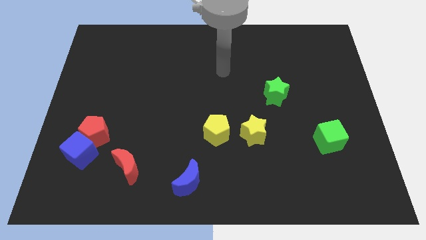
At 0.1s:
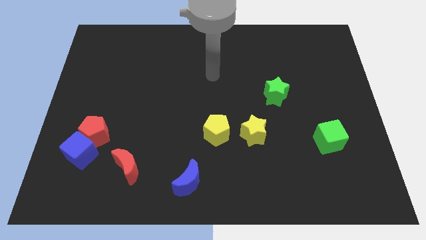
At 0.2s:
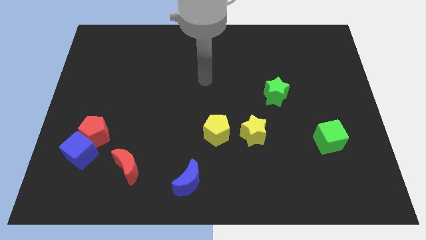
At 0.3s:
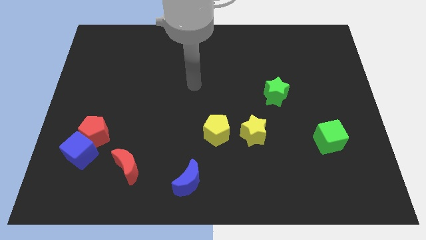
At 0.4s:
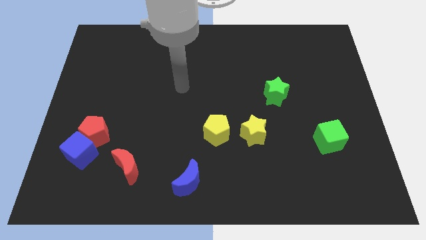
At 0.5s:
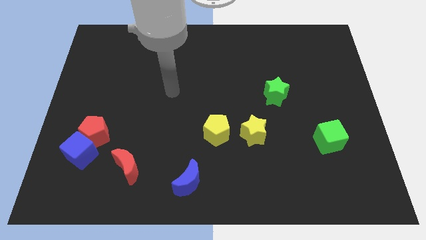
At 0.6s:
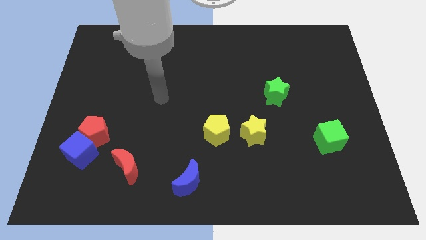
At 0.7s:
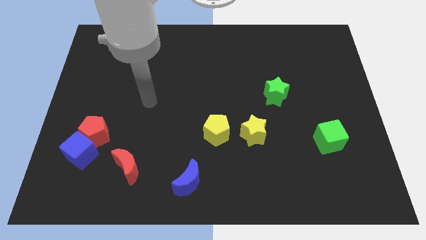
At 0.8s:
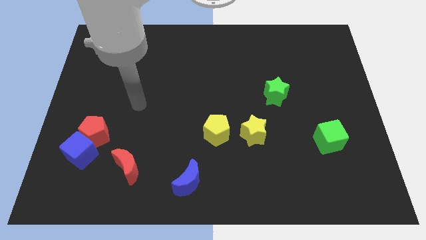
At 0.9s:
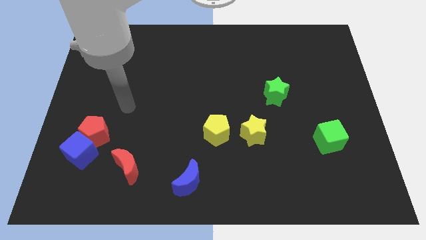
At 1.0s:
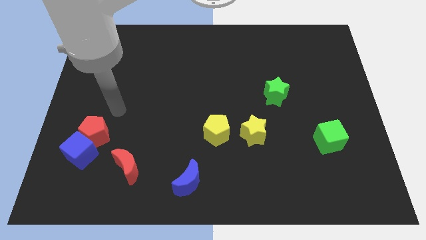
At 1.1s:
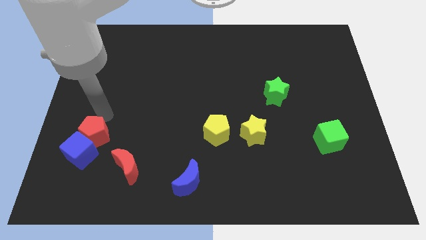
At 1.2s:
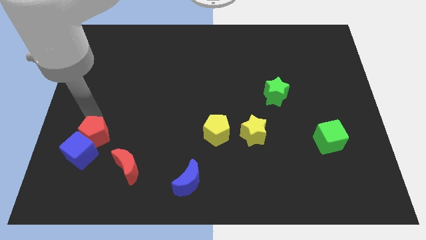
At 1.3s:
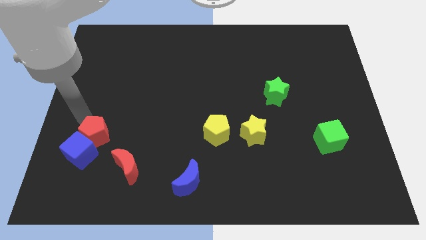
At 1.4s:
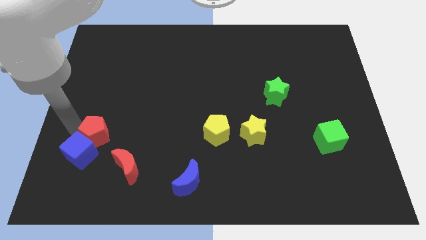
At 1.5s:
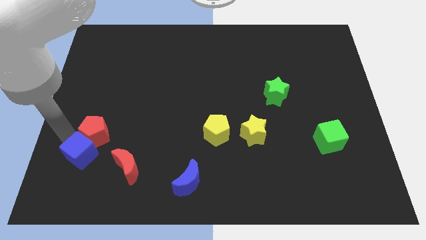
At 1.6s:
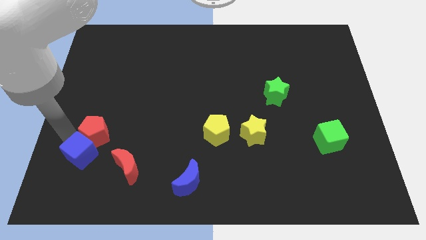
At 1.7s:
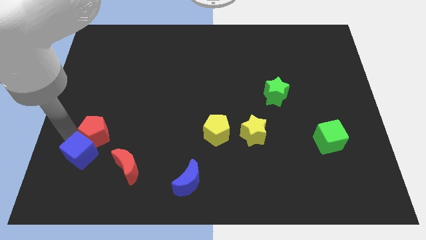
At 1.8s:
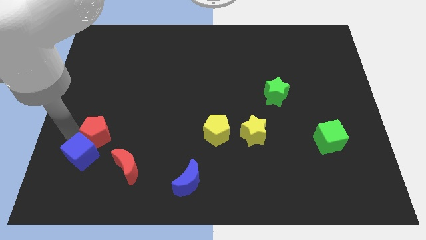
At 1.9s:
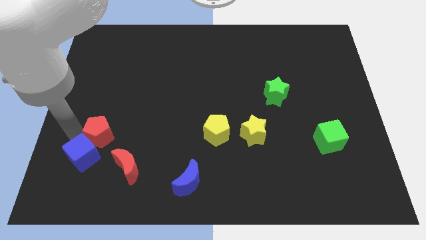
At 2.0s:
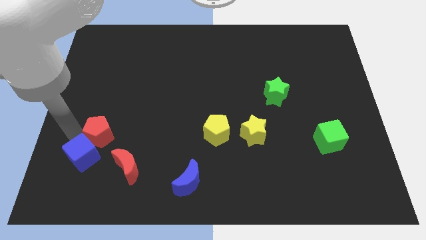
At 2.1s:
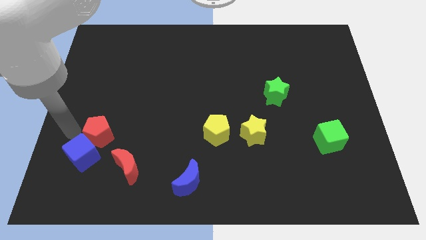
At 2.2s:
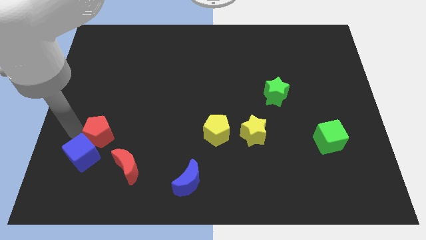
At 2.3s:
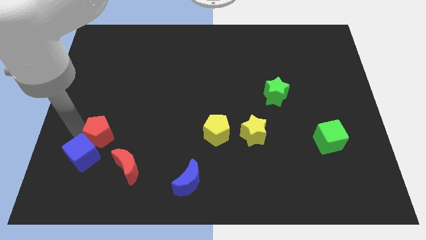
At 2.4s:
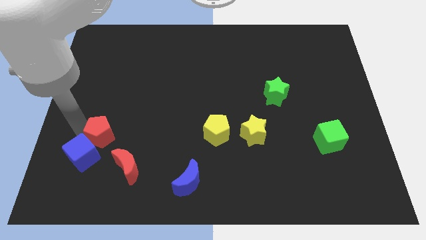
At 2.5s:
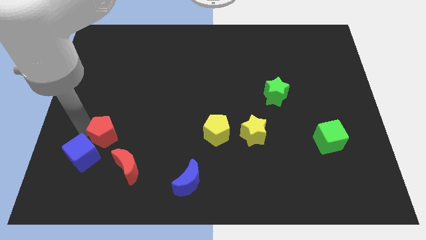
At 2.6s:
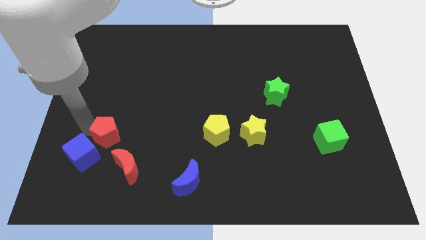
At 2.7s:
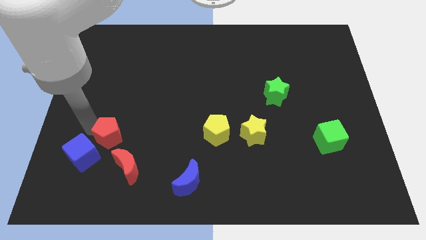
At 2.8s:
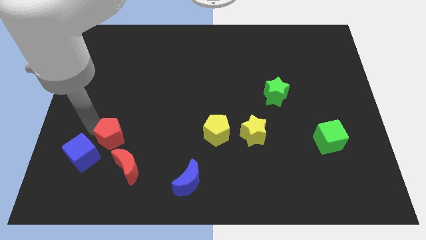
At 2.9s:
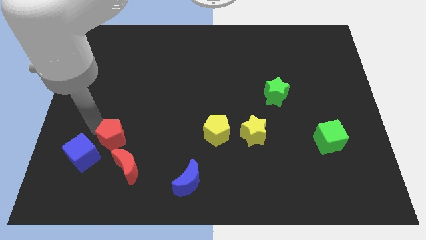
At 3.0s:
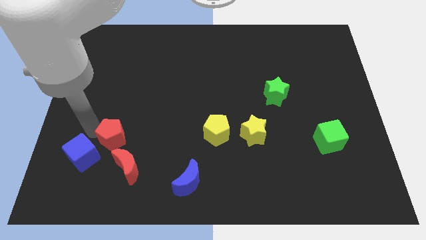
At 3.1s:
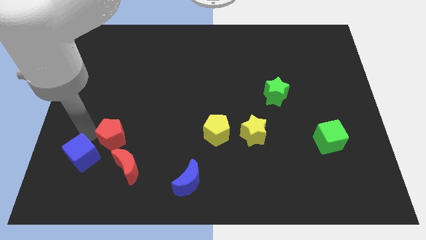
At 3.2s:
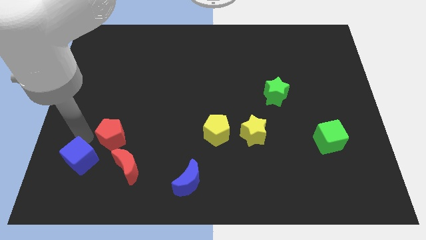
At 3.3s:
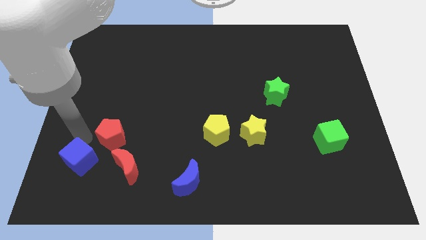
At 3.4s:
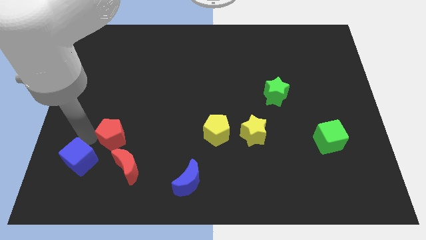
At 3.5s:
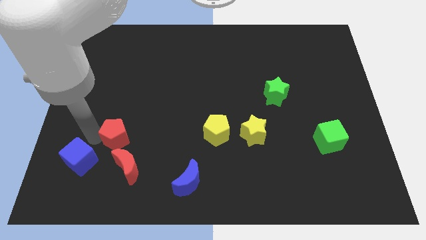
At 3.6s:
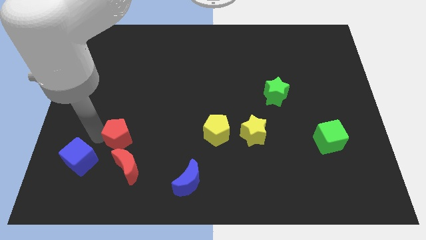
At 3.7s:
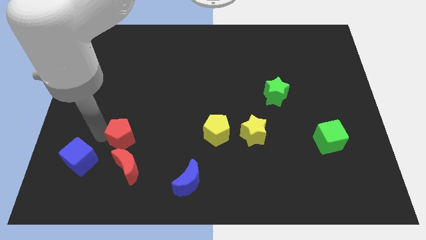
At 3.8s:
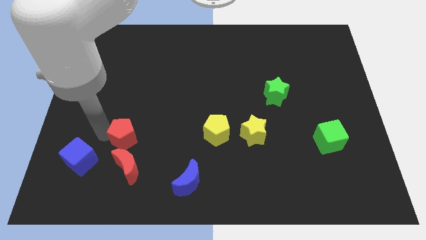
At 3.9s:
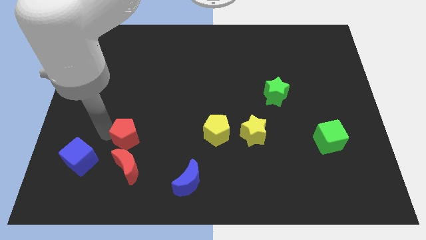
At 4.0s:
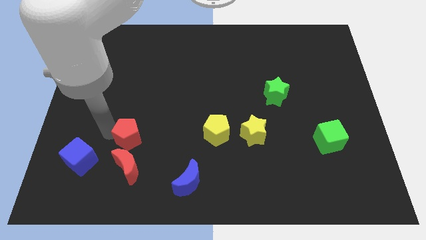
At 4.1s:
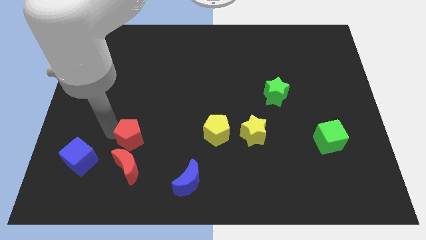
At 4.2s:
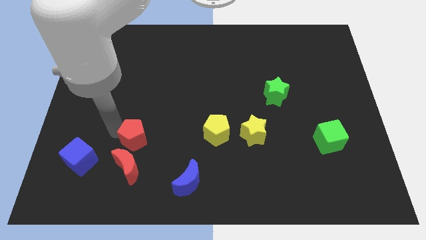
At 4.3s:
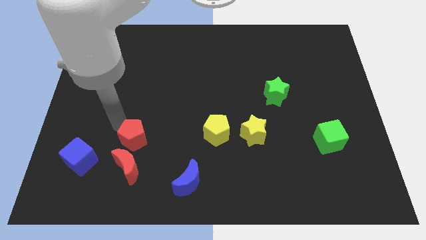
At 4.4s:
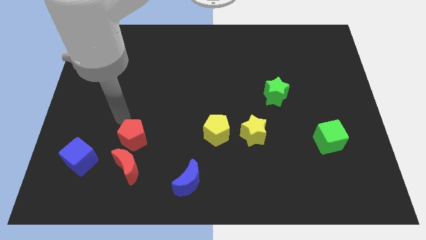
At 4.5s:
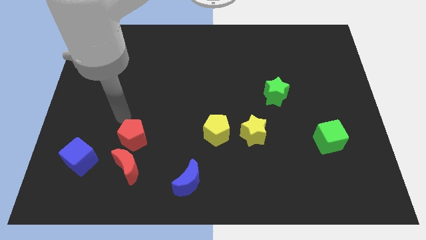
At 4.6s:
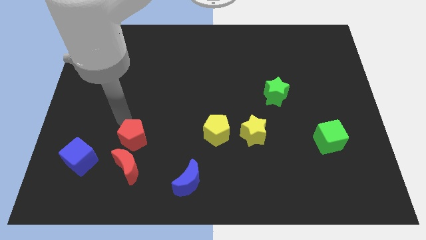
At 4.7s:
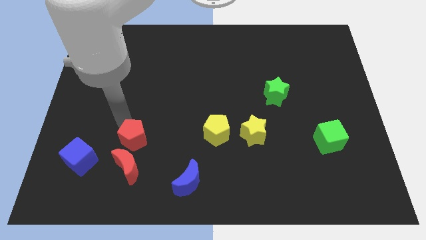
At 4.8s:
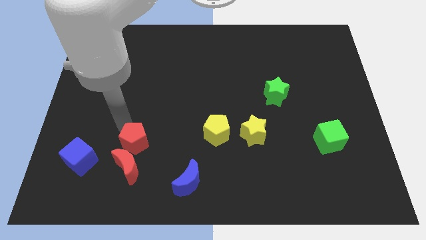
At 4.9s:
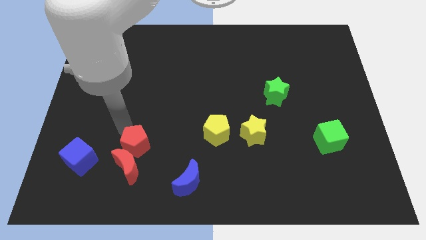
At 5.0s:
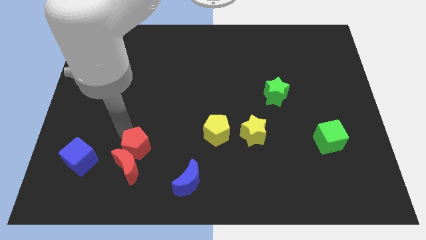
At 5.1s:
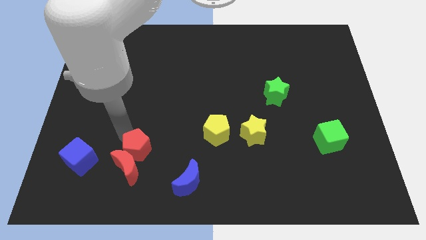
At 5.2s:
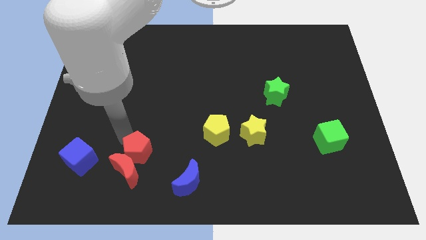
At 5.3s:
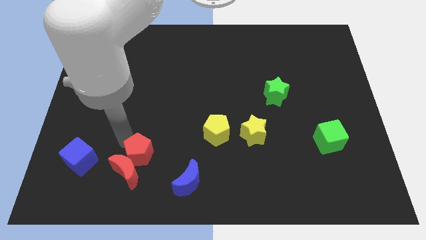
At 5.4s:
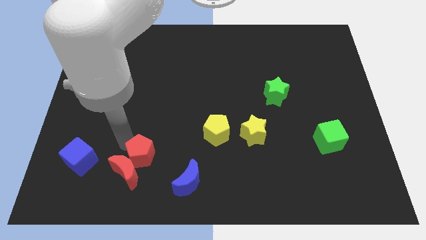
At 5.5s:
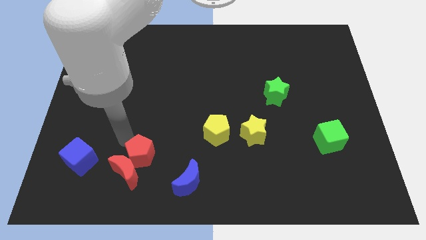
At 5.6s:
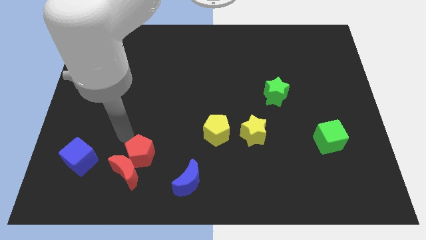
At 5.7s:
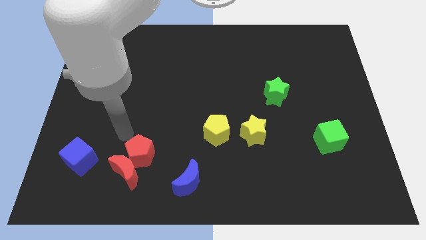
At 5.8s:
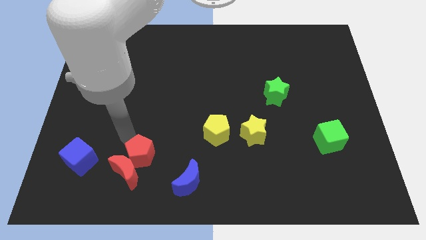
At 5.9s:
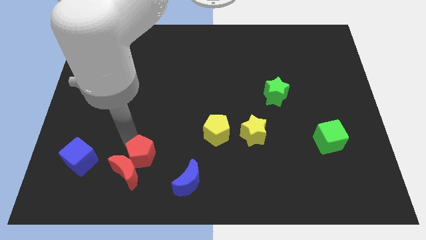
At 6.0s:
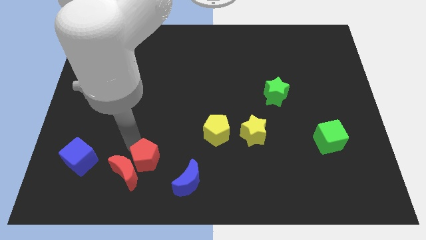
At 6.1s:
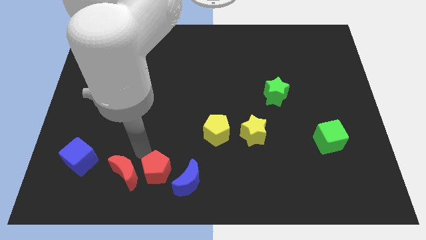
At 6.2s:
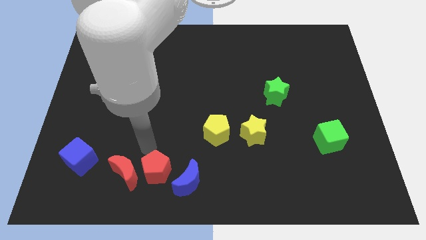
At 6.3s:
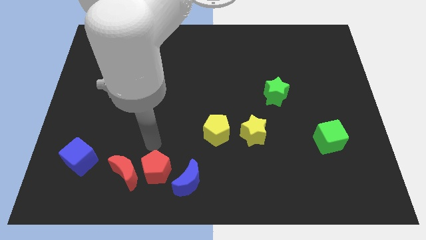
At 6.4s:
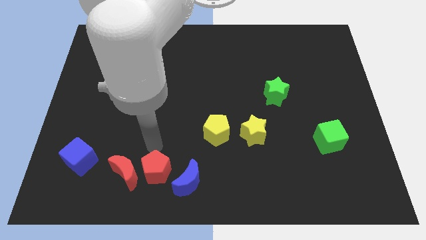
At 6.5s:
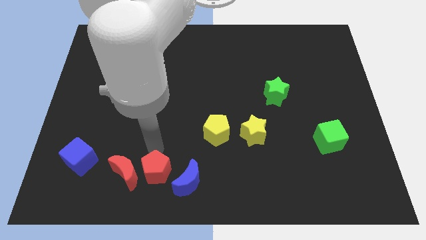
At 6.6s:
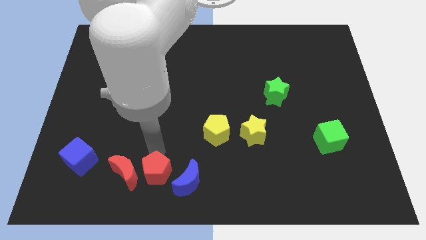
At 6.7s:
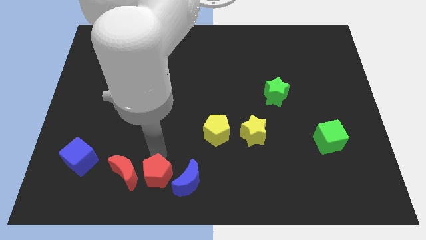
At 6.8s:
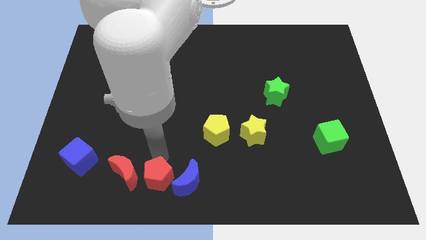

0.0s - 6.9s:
push the red pentagon to the bottom side

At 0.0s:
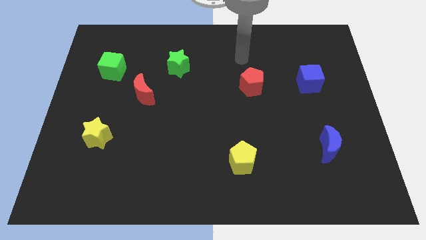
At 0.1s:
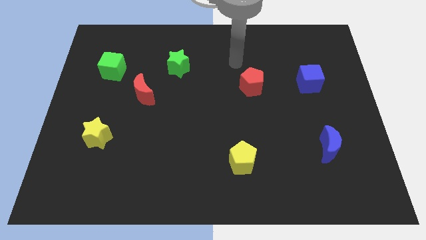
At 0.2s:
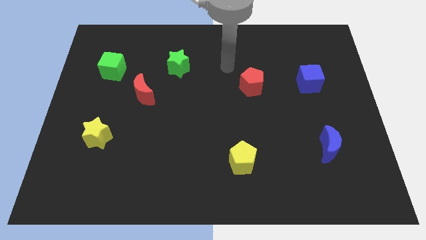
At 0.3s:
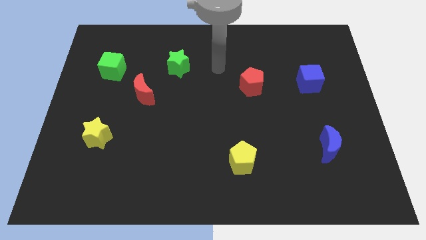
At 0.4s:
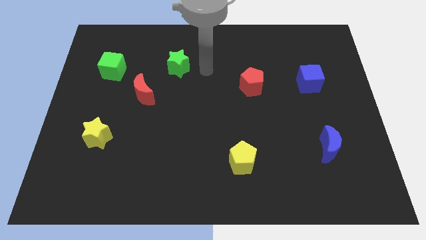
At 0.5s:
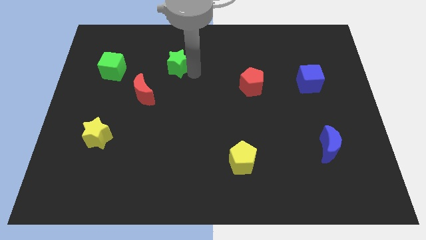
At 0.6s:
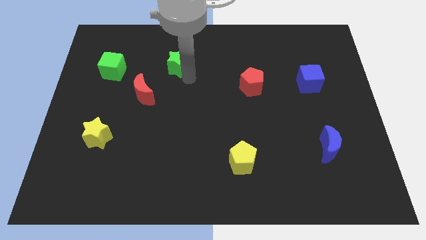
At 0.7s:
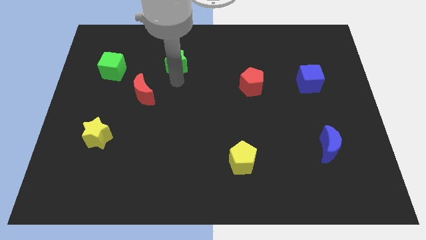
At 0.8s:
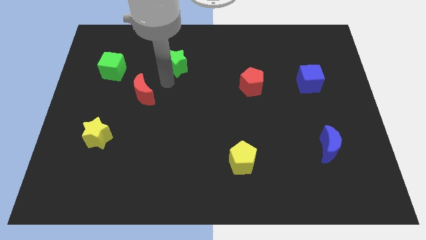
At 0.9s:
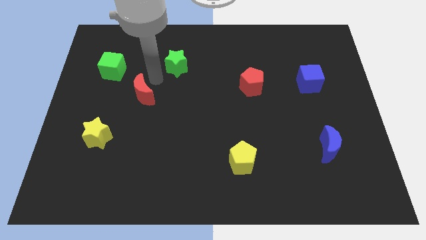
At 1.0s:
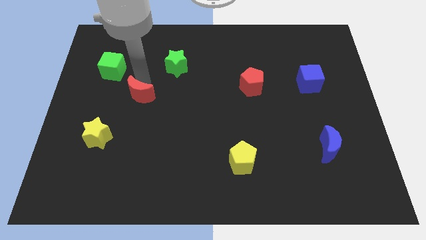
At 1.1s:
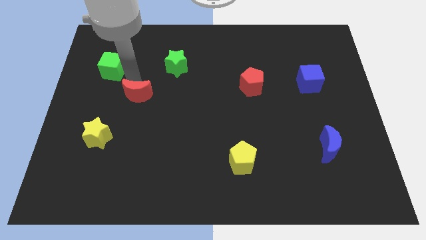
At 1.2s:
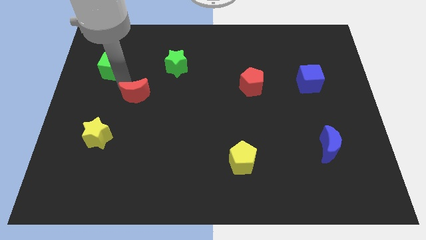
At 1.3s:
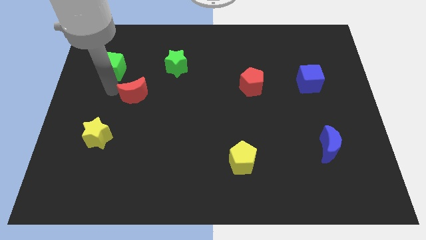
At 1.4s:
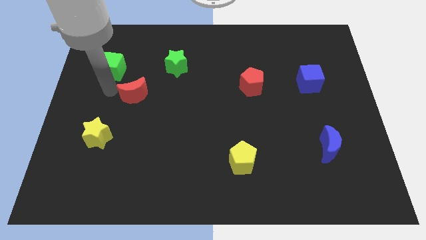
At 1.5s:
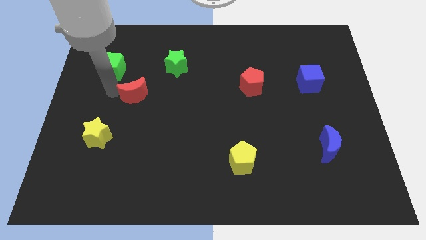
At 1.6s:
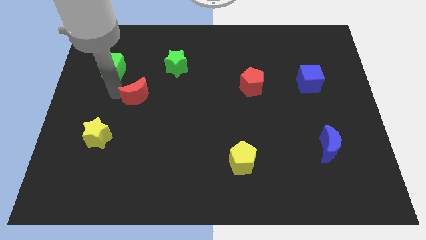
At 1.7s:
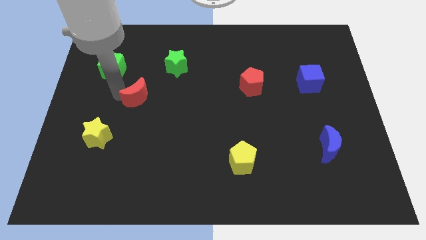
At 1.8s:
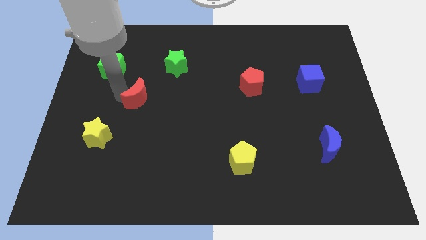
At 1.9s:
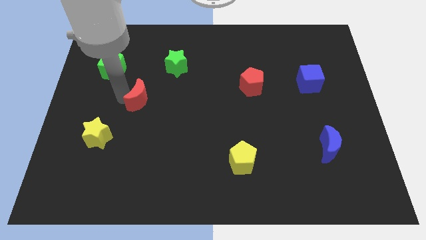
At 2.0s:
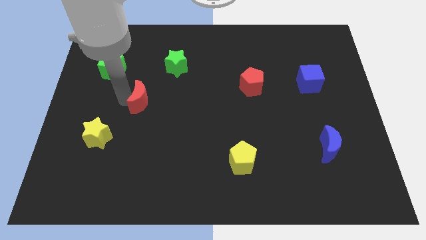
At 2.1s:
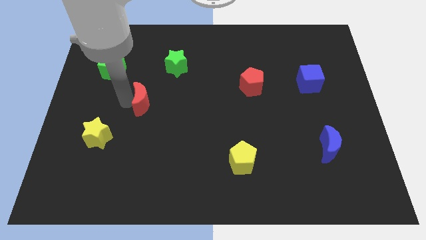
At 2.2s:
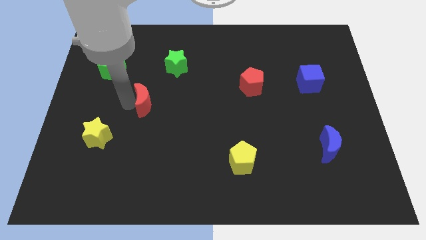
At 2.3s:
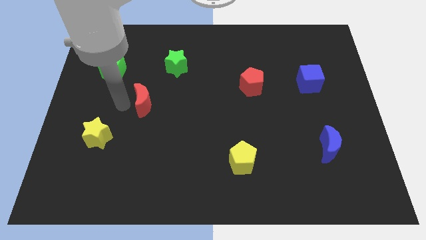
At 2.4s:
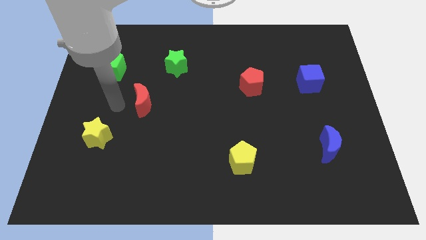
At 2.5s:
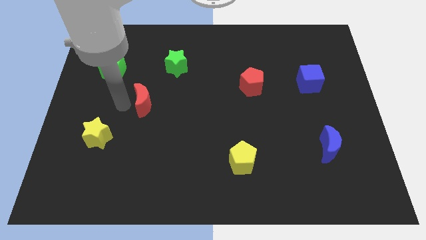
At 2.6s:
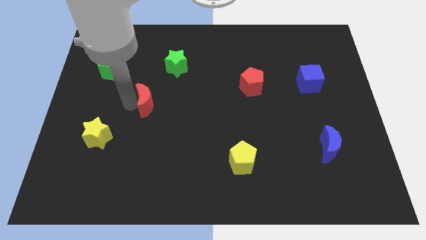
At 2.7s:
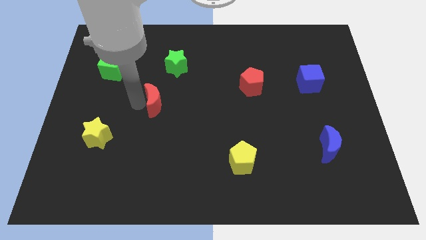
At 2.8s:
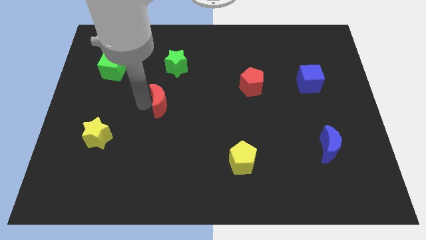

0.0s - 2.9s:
slide the red moon to the center
